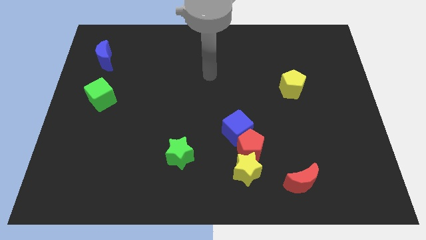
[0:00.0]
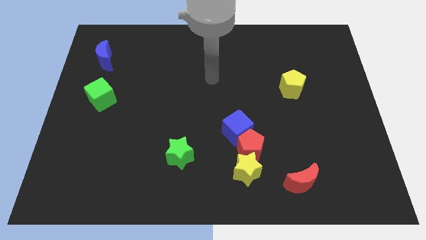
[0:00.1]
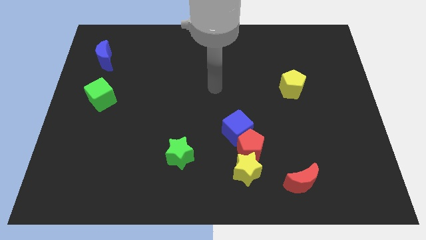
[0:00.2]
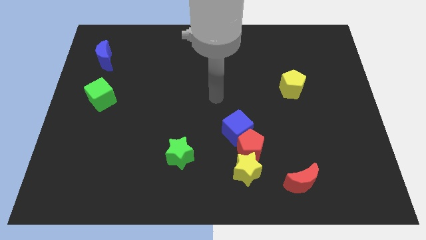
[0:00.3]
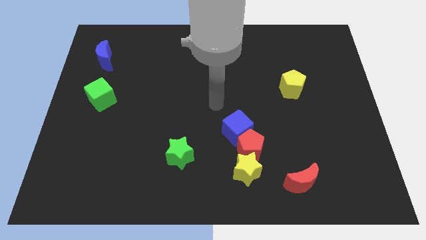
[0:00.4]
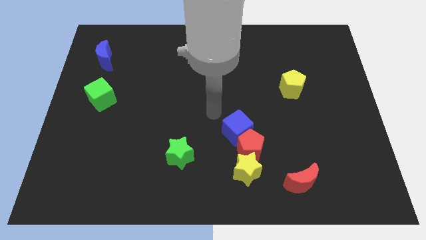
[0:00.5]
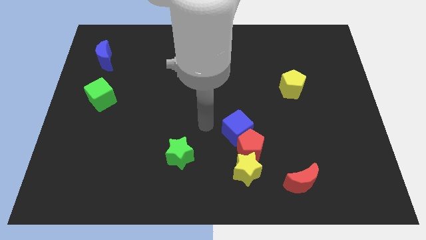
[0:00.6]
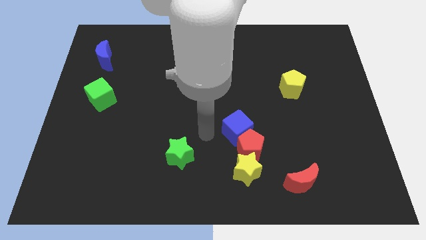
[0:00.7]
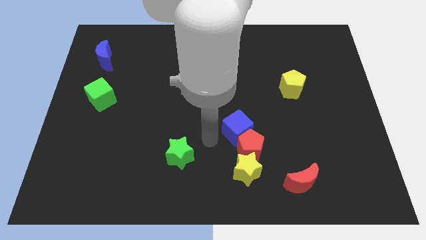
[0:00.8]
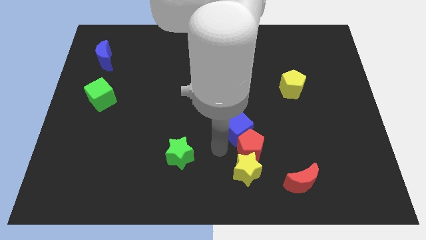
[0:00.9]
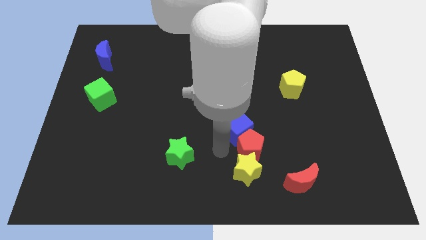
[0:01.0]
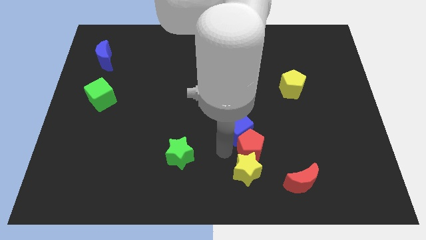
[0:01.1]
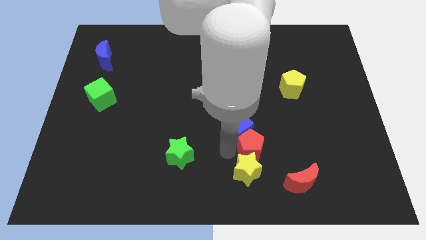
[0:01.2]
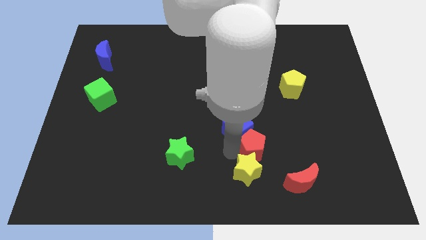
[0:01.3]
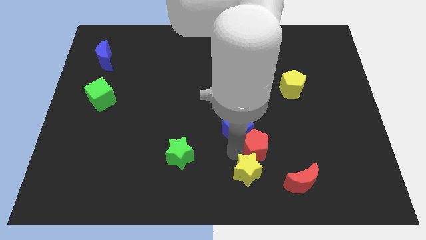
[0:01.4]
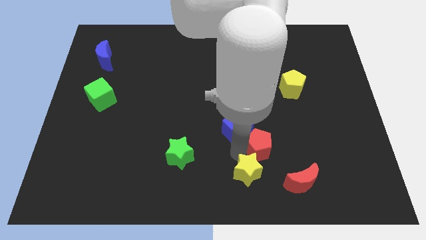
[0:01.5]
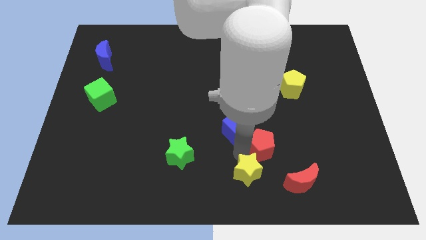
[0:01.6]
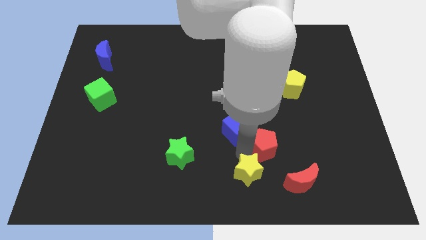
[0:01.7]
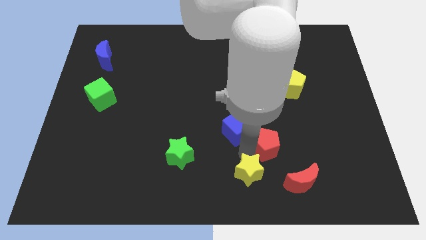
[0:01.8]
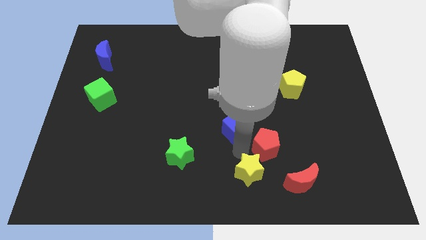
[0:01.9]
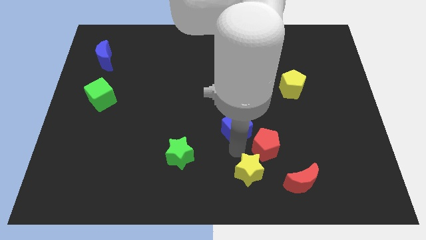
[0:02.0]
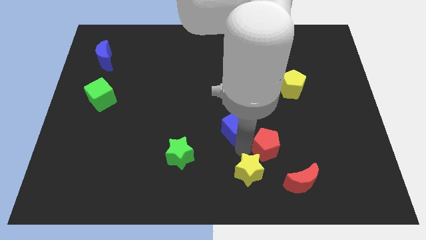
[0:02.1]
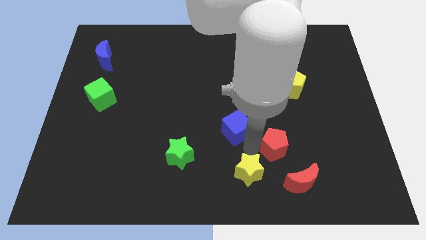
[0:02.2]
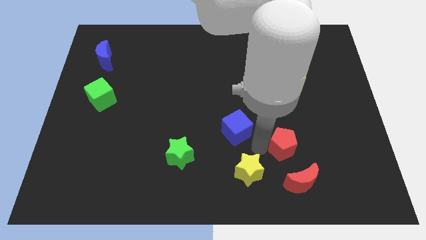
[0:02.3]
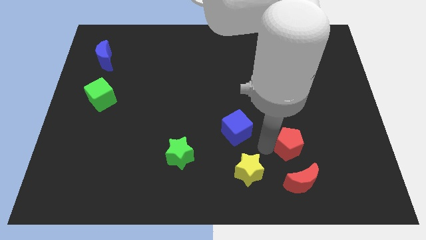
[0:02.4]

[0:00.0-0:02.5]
pull the red pentagon apart from the yellow star and blue cube

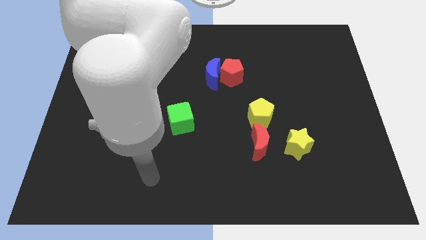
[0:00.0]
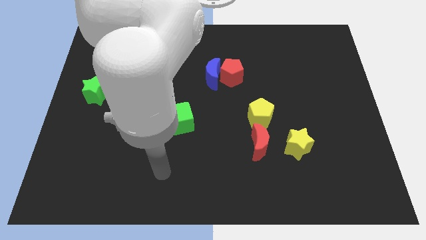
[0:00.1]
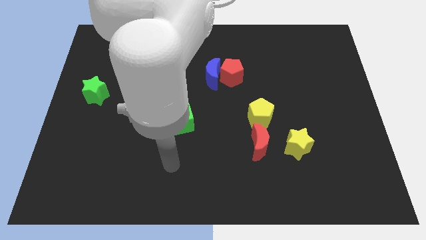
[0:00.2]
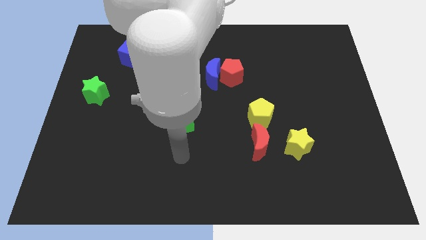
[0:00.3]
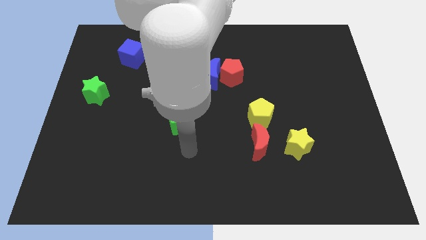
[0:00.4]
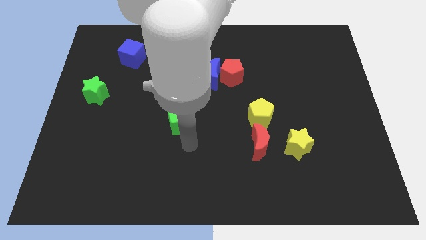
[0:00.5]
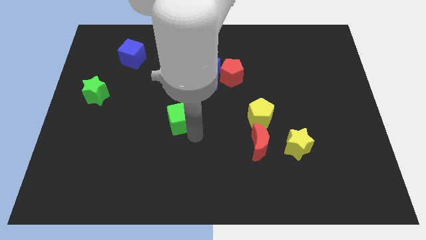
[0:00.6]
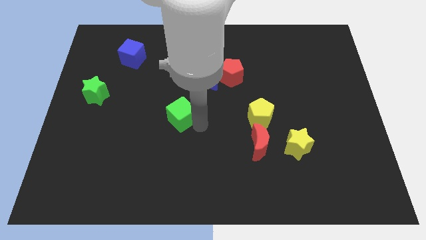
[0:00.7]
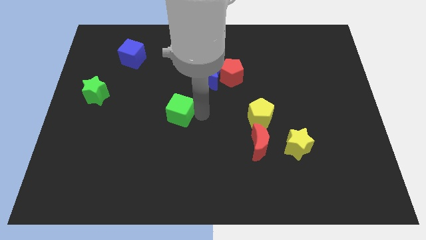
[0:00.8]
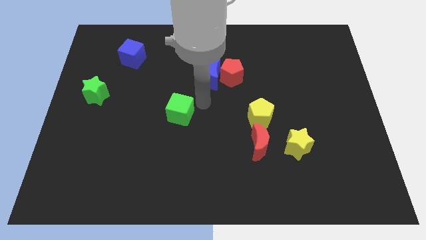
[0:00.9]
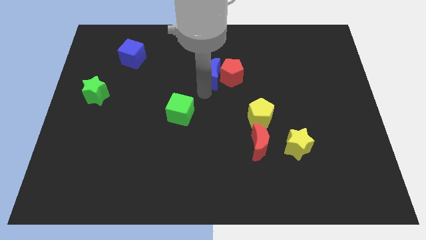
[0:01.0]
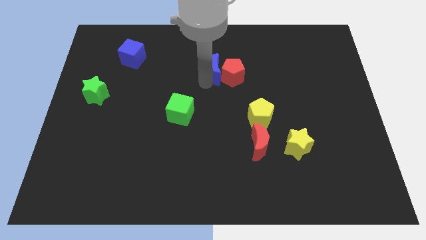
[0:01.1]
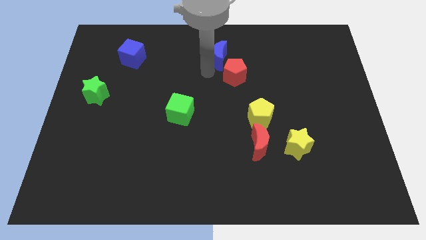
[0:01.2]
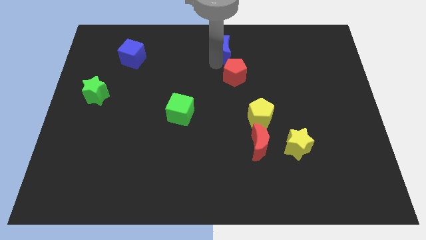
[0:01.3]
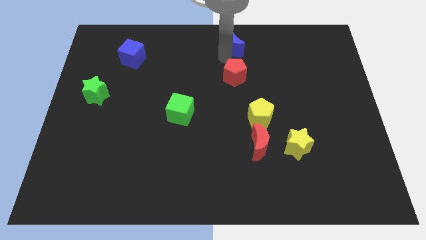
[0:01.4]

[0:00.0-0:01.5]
move the red pentagon away from the blue moon

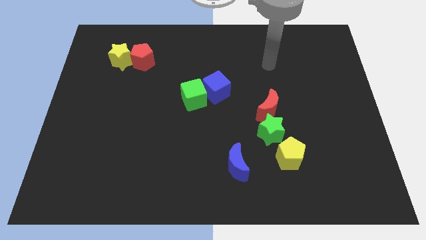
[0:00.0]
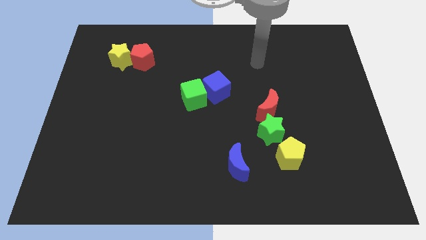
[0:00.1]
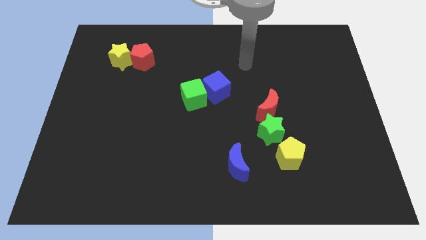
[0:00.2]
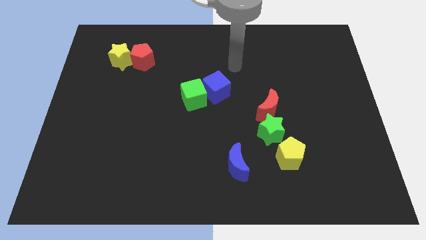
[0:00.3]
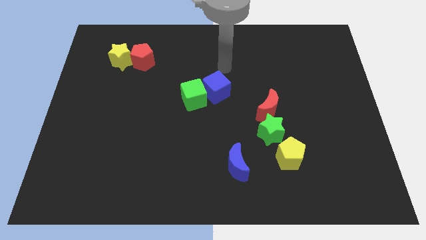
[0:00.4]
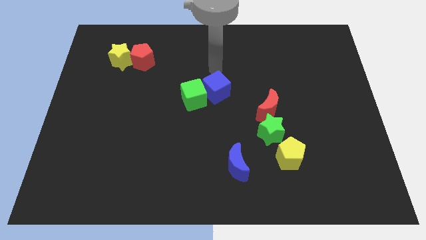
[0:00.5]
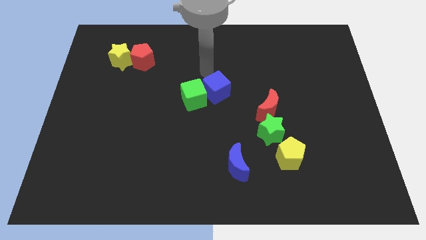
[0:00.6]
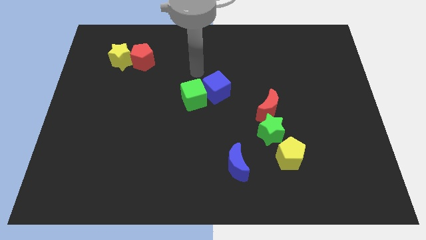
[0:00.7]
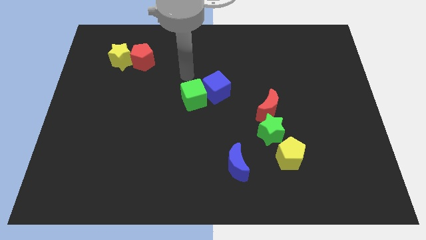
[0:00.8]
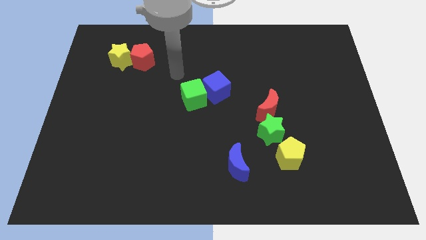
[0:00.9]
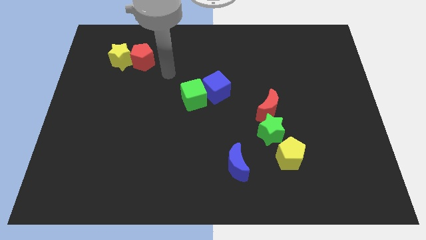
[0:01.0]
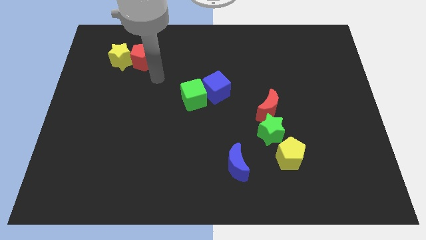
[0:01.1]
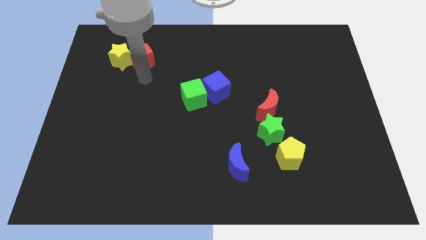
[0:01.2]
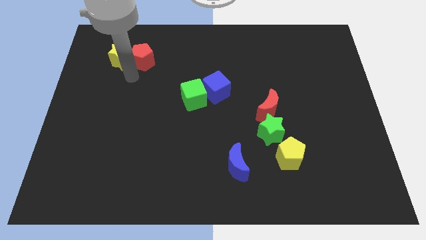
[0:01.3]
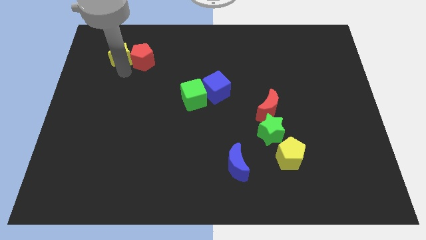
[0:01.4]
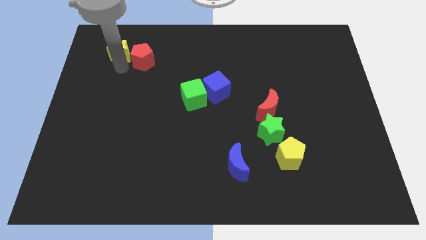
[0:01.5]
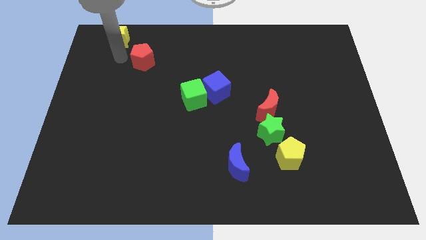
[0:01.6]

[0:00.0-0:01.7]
separate the red pentagon from the yellow star

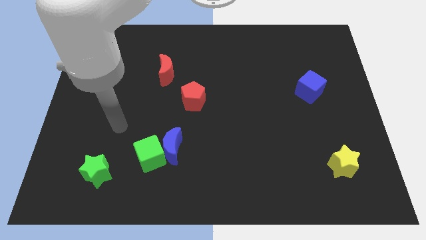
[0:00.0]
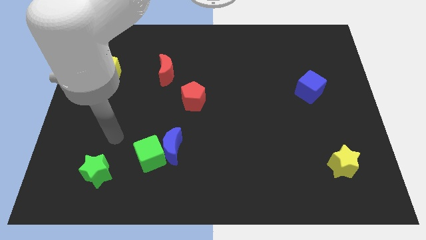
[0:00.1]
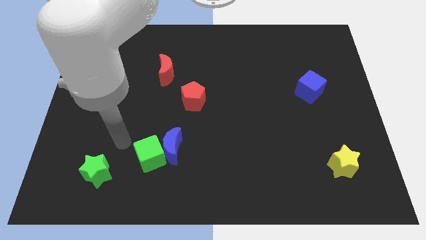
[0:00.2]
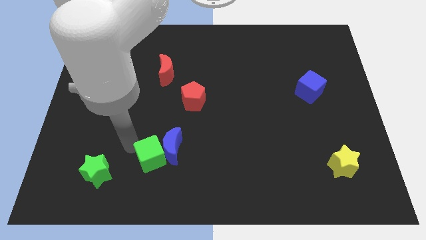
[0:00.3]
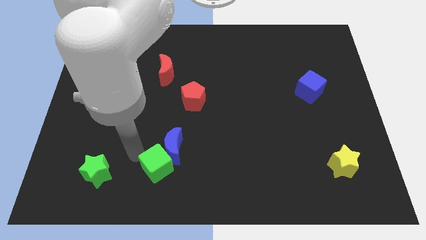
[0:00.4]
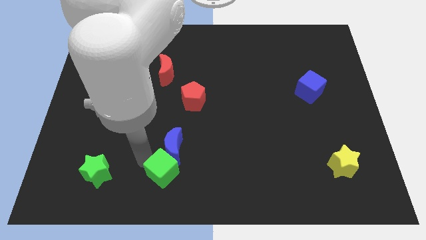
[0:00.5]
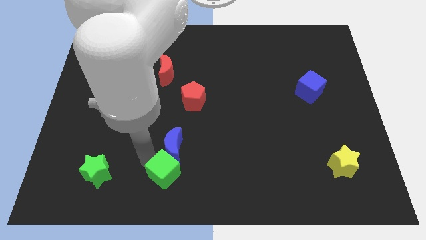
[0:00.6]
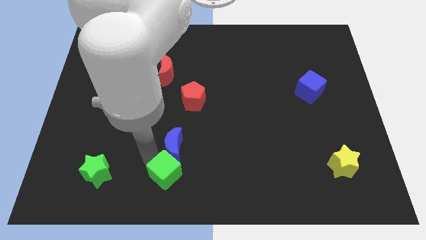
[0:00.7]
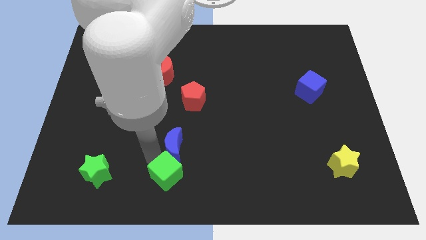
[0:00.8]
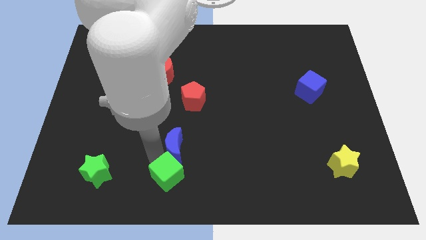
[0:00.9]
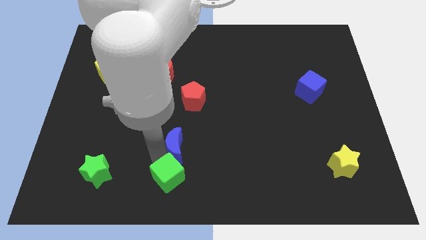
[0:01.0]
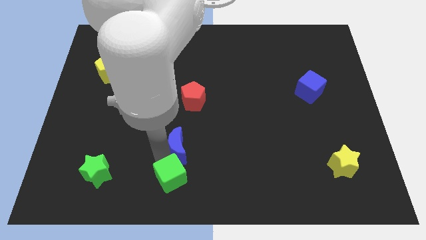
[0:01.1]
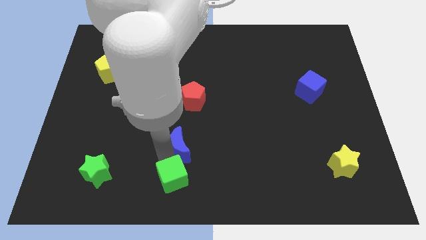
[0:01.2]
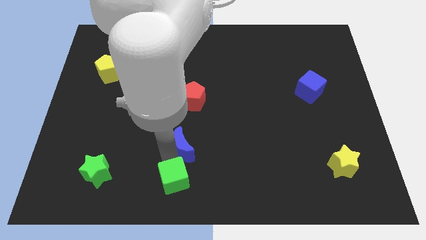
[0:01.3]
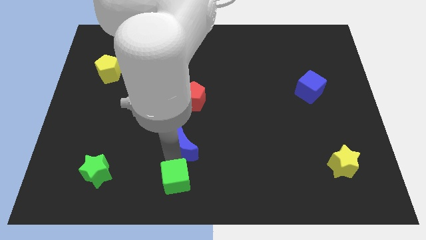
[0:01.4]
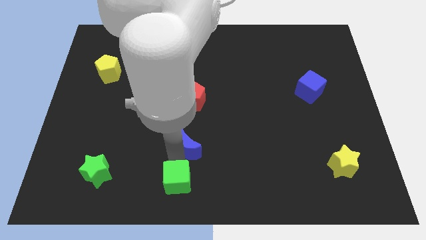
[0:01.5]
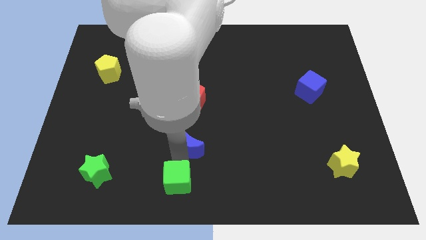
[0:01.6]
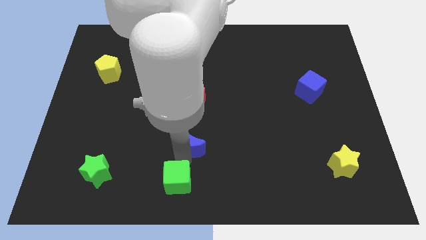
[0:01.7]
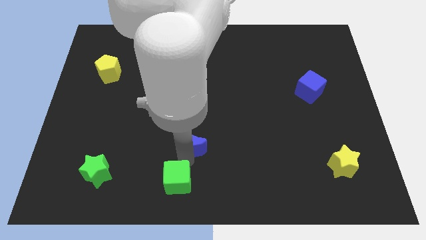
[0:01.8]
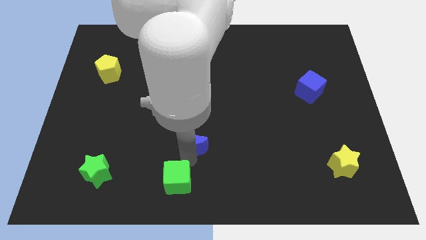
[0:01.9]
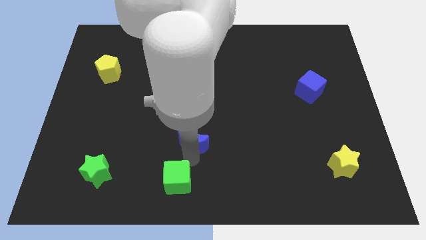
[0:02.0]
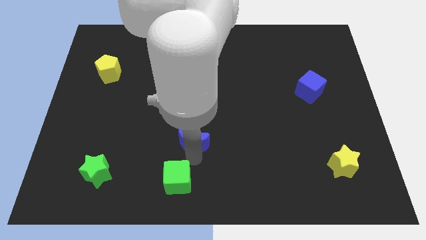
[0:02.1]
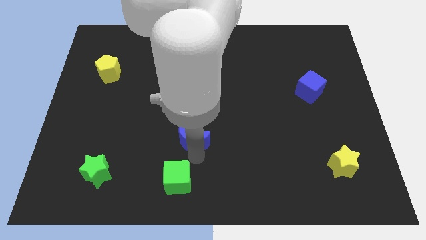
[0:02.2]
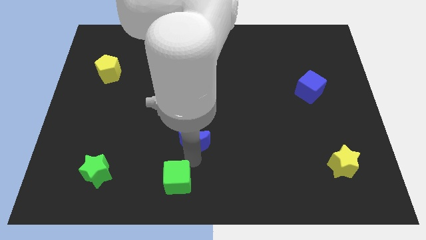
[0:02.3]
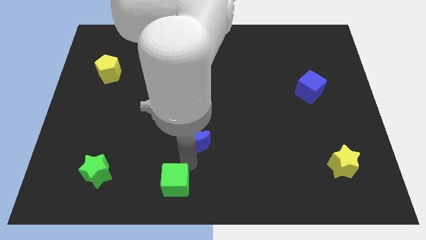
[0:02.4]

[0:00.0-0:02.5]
separate the blue moon from the green cube

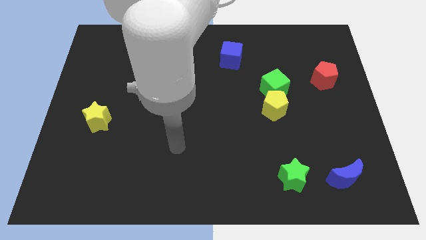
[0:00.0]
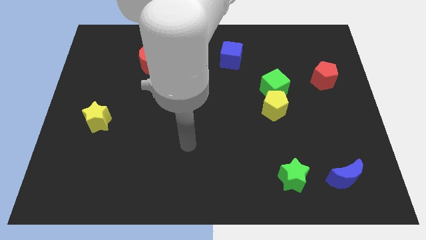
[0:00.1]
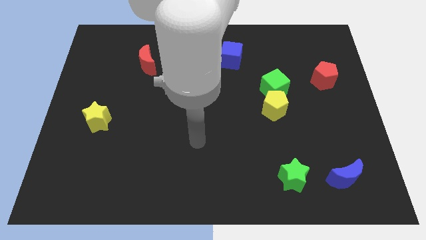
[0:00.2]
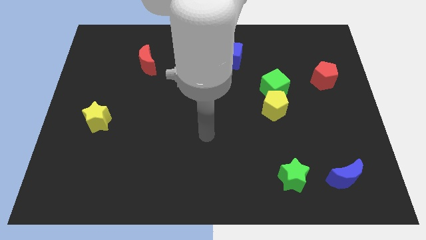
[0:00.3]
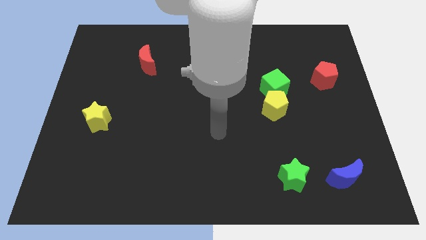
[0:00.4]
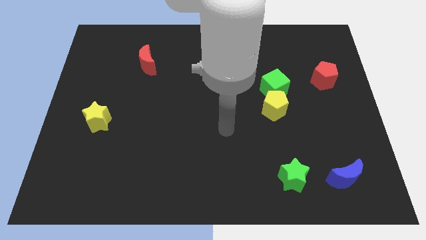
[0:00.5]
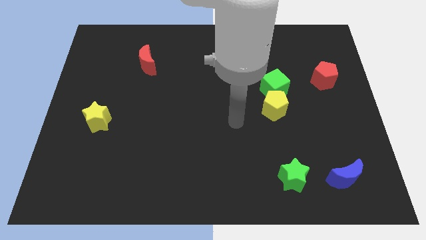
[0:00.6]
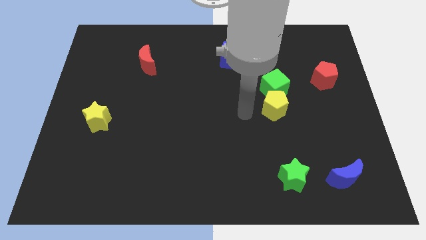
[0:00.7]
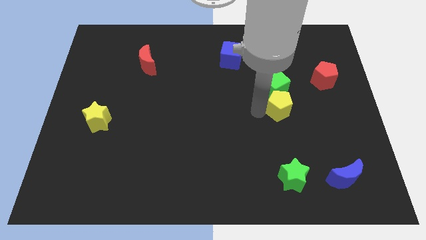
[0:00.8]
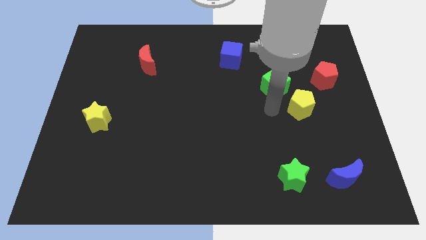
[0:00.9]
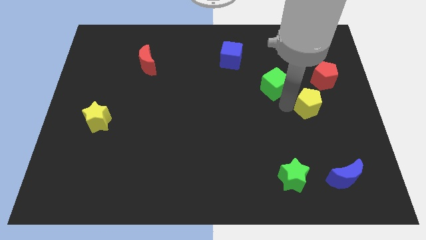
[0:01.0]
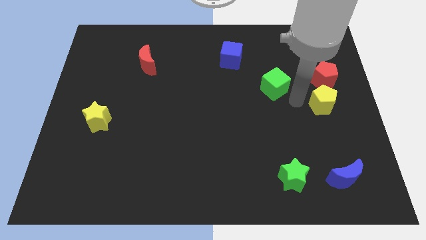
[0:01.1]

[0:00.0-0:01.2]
move the green cube away from the yellow pentagon
